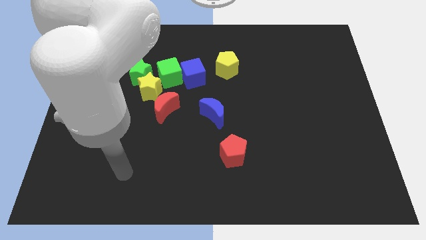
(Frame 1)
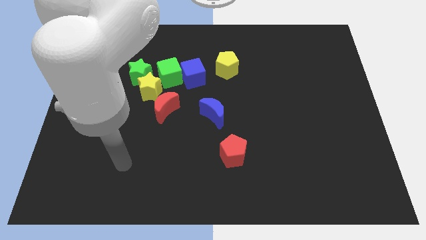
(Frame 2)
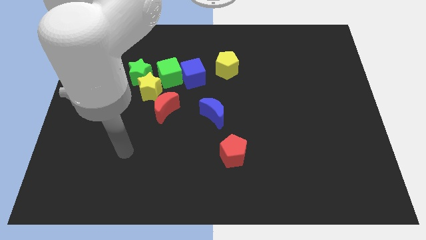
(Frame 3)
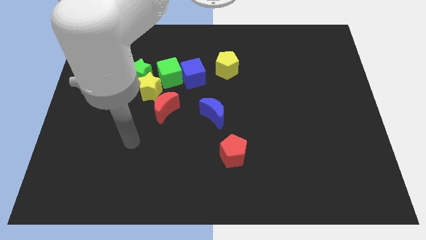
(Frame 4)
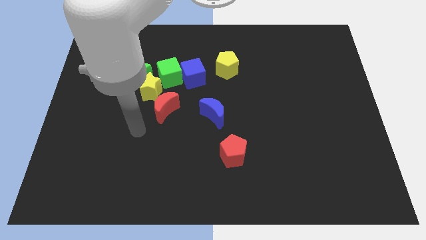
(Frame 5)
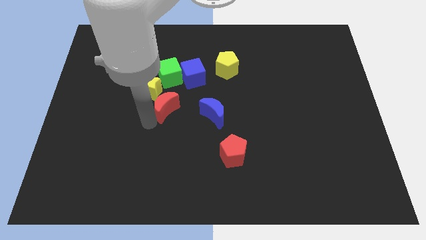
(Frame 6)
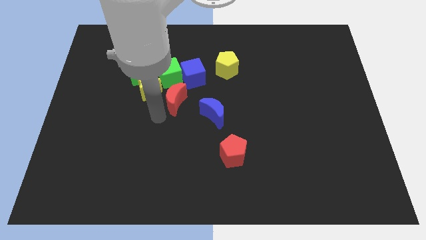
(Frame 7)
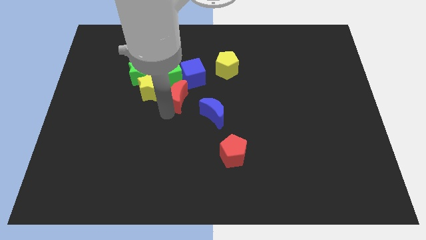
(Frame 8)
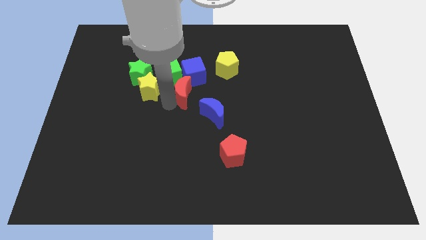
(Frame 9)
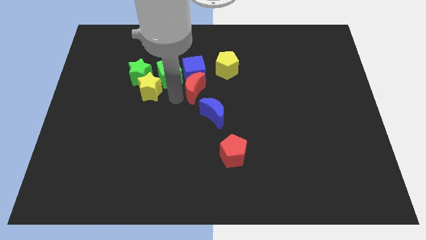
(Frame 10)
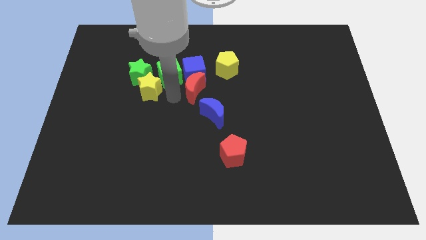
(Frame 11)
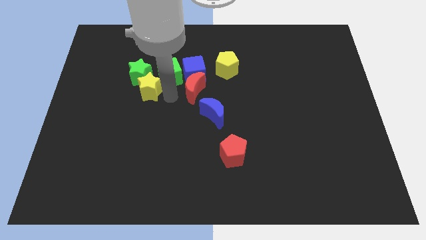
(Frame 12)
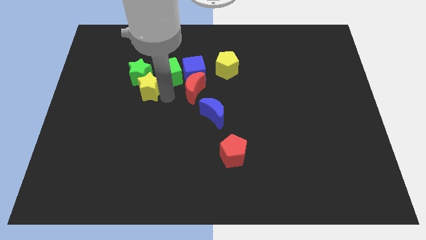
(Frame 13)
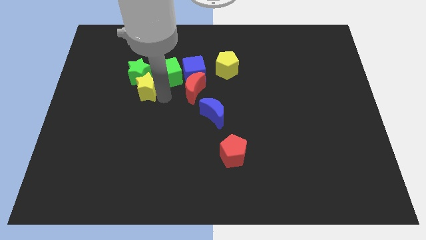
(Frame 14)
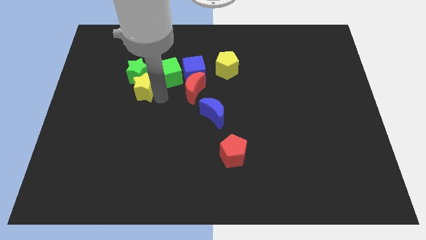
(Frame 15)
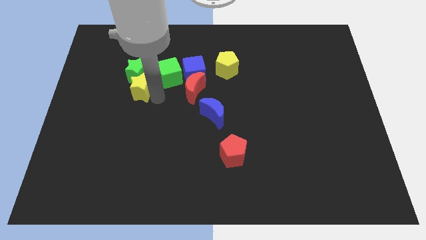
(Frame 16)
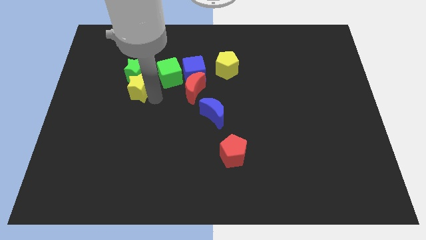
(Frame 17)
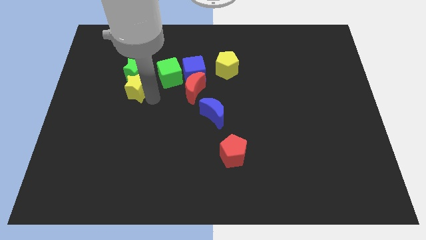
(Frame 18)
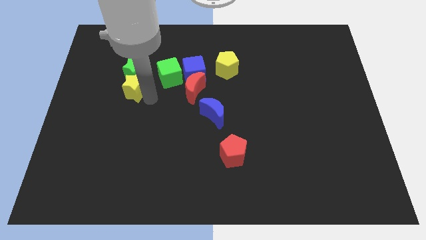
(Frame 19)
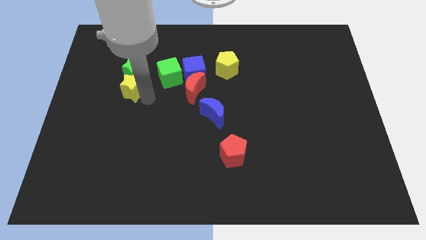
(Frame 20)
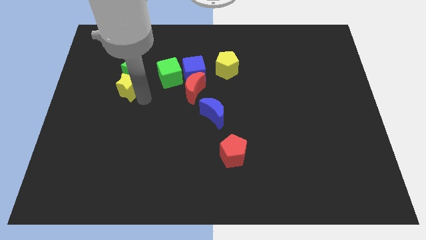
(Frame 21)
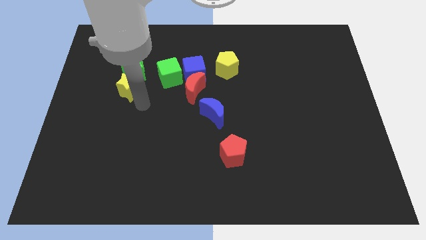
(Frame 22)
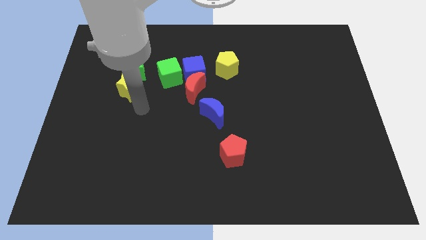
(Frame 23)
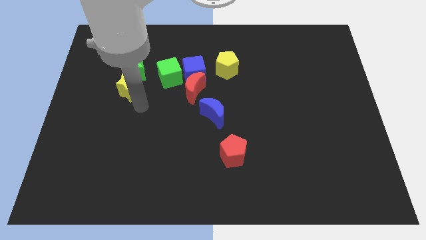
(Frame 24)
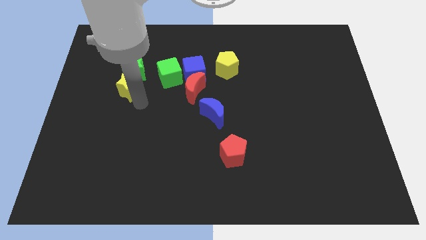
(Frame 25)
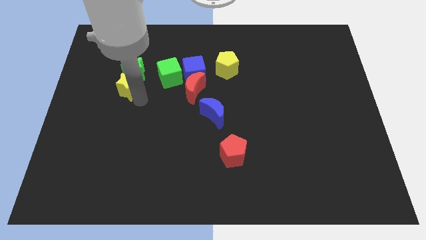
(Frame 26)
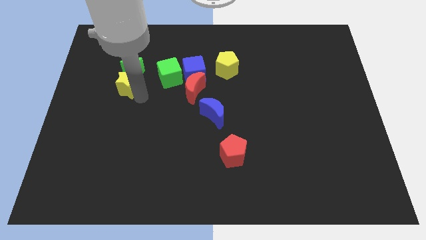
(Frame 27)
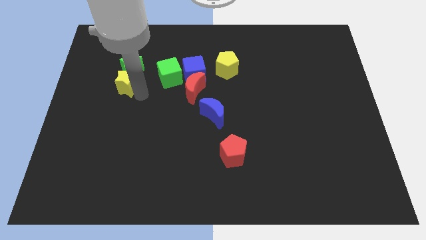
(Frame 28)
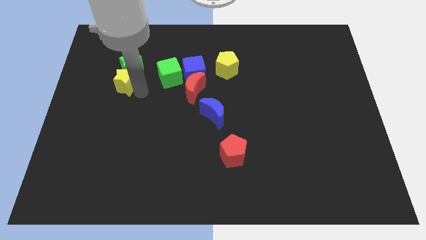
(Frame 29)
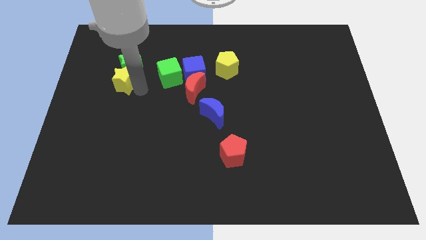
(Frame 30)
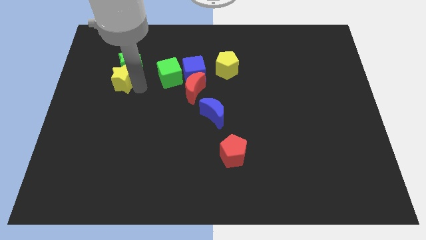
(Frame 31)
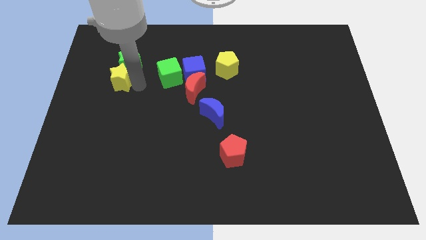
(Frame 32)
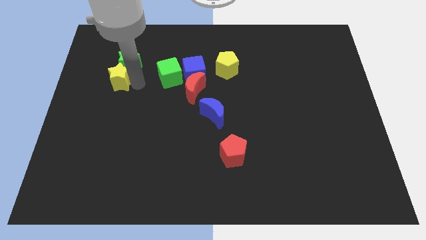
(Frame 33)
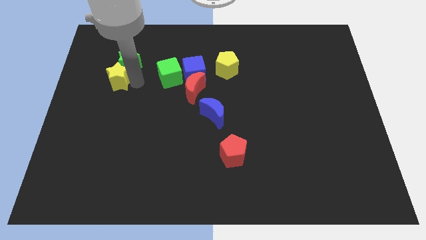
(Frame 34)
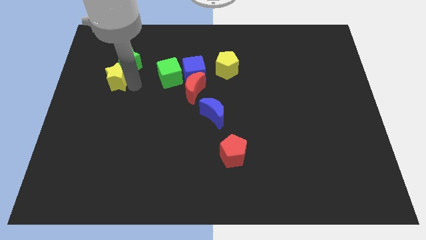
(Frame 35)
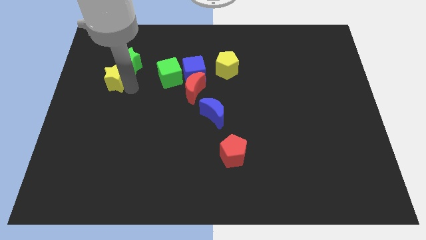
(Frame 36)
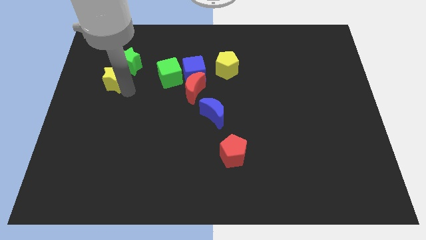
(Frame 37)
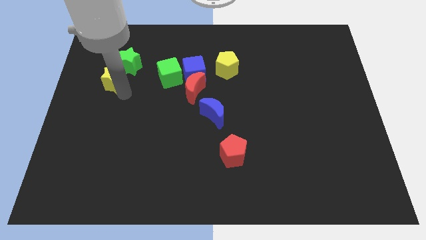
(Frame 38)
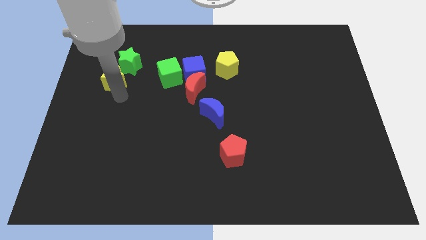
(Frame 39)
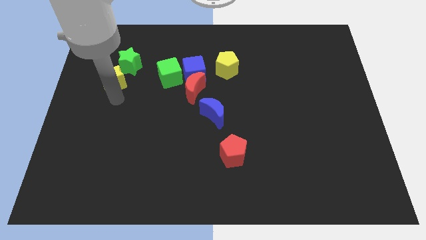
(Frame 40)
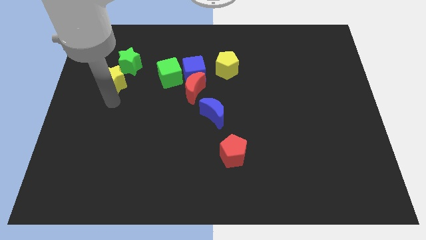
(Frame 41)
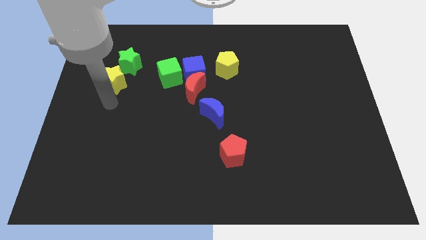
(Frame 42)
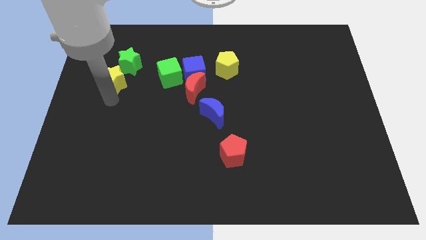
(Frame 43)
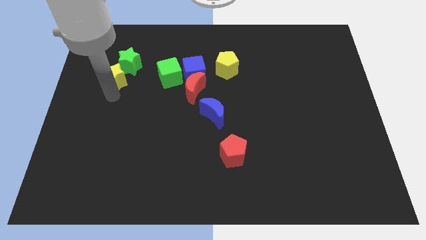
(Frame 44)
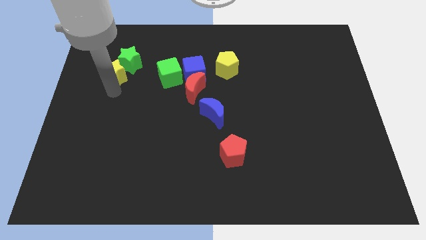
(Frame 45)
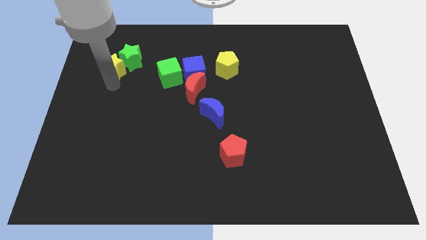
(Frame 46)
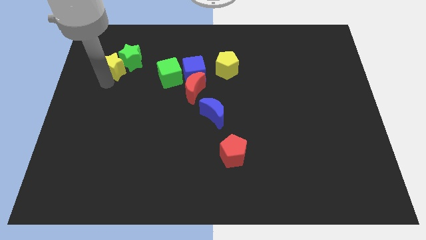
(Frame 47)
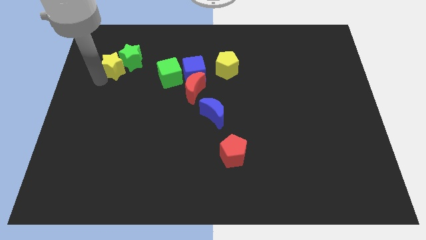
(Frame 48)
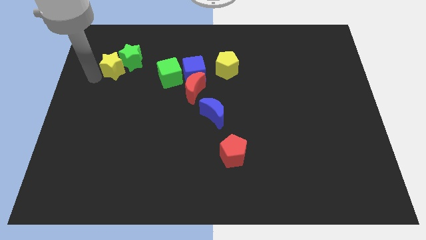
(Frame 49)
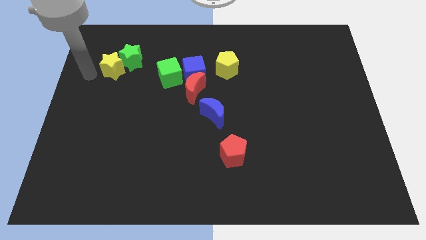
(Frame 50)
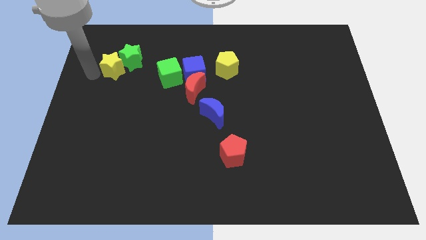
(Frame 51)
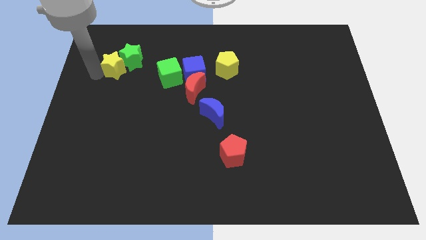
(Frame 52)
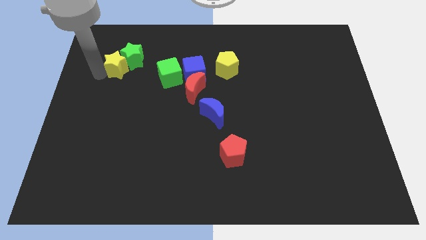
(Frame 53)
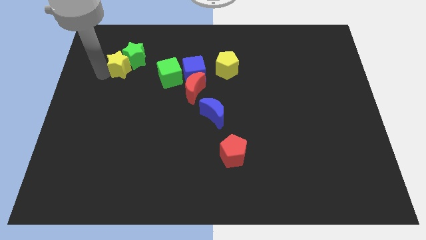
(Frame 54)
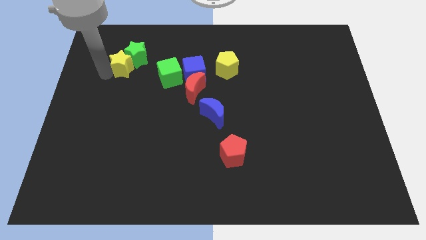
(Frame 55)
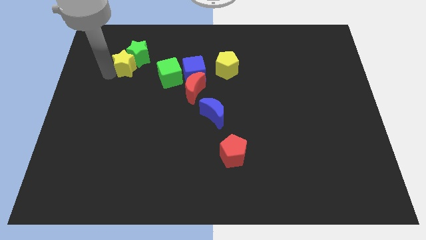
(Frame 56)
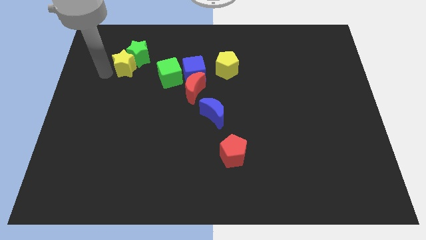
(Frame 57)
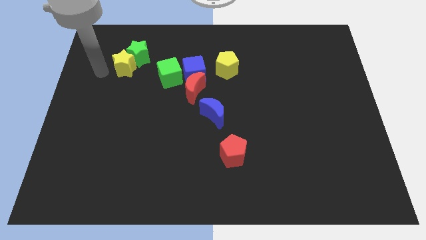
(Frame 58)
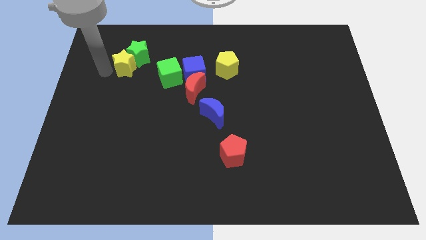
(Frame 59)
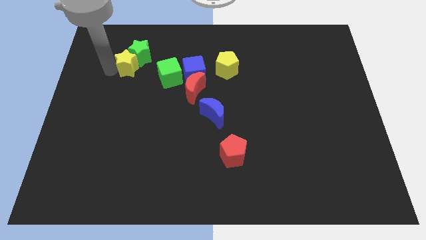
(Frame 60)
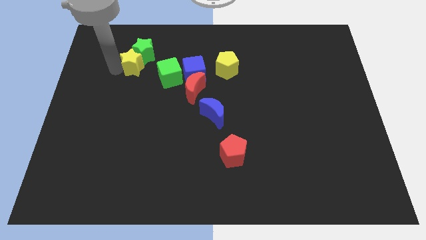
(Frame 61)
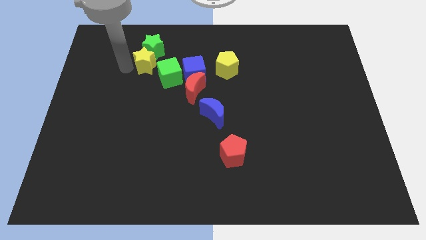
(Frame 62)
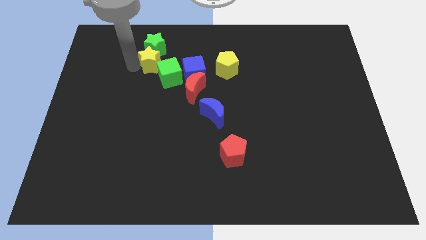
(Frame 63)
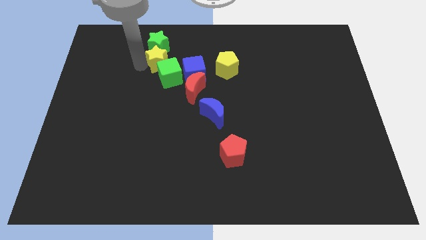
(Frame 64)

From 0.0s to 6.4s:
put the yellow star diagonally up and to the left of the blue cube

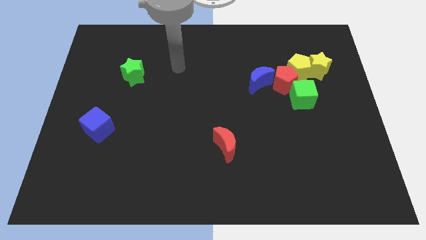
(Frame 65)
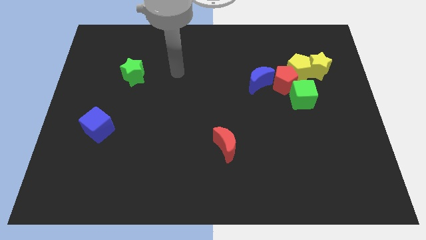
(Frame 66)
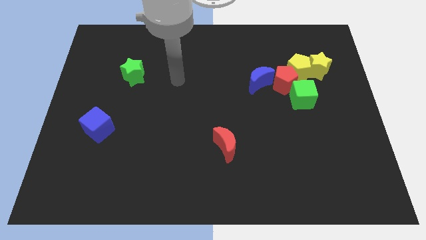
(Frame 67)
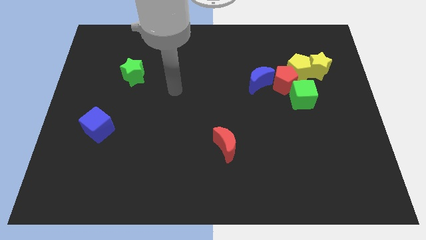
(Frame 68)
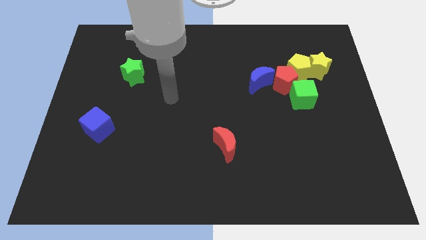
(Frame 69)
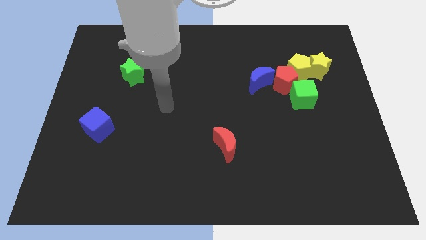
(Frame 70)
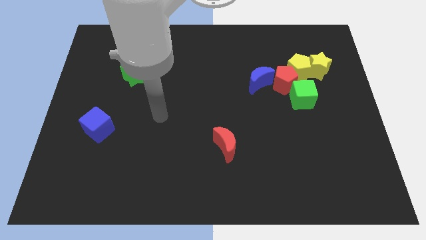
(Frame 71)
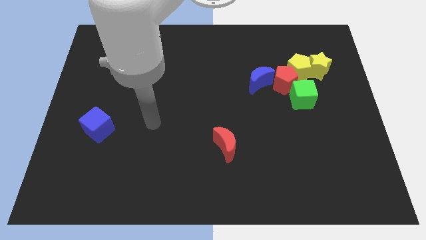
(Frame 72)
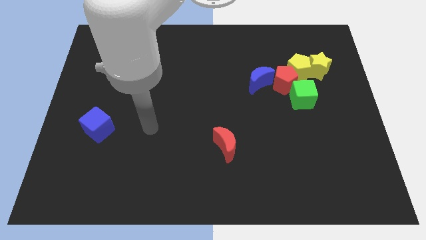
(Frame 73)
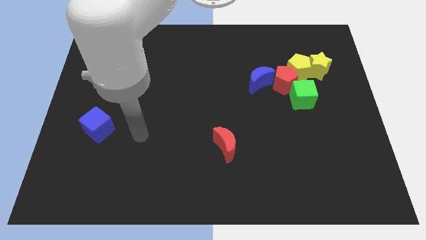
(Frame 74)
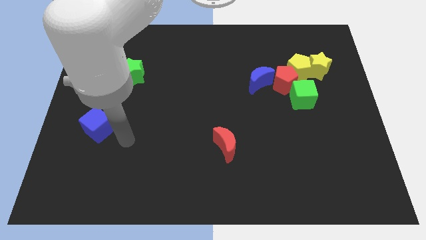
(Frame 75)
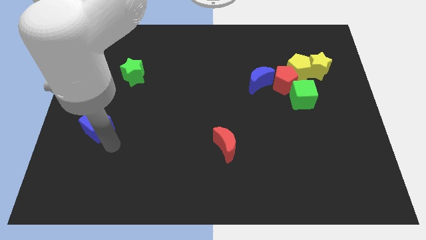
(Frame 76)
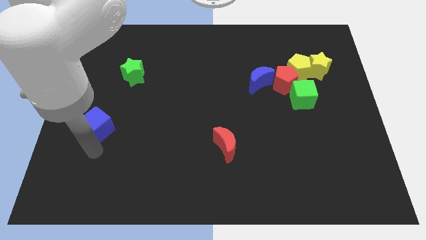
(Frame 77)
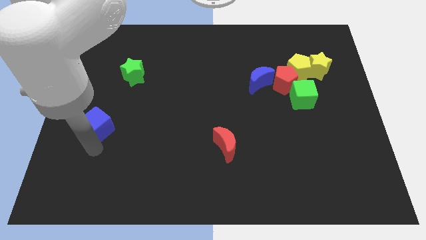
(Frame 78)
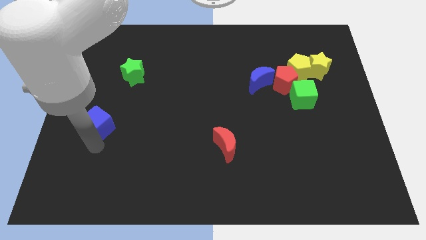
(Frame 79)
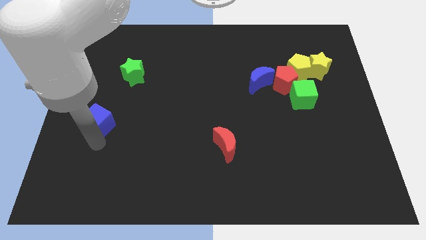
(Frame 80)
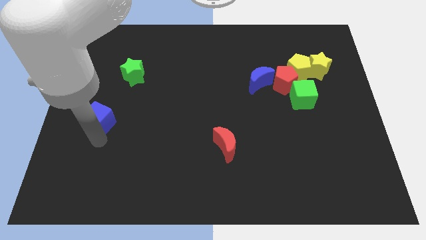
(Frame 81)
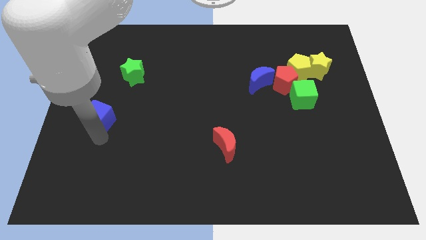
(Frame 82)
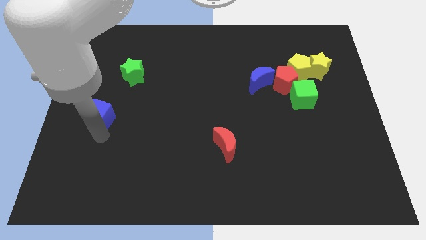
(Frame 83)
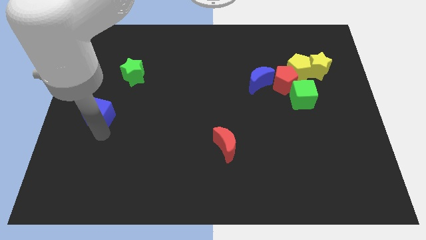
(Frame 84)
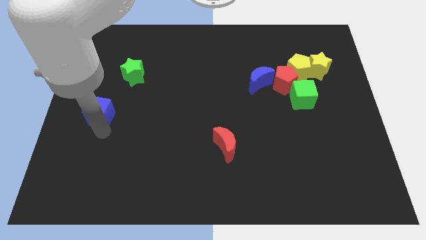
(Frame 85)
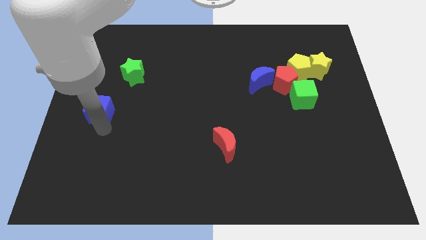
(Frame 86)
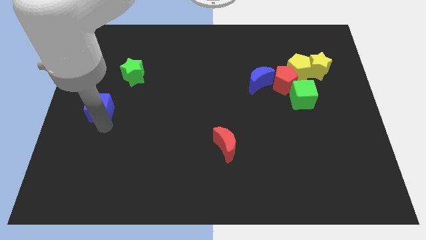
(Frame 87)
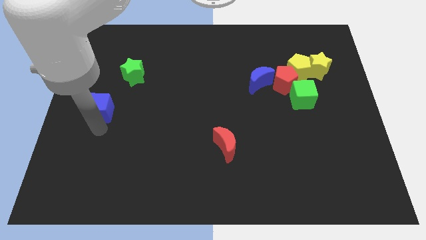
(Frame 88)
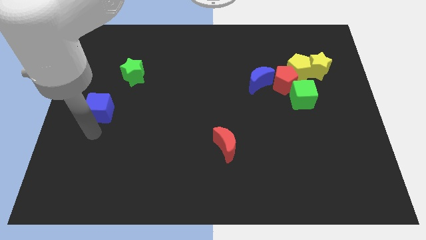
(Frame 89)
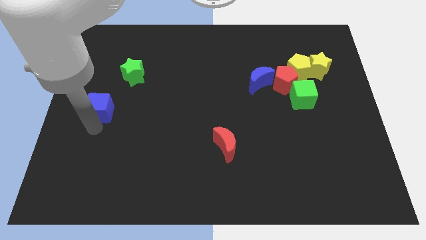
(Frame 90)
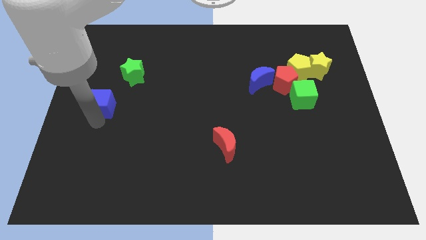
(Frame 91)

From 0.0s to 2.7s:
push the blue cube to the bottom left of the green star
